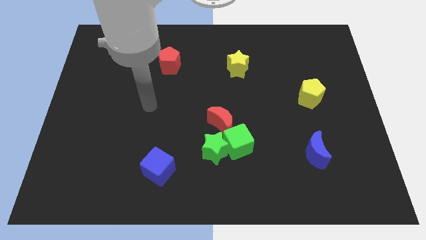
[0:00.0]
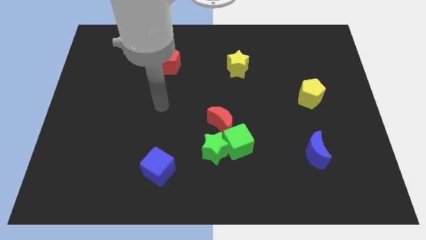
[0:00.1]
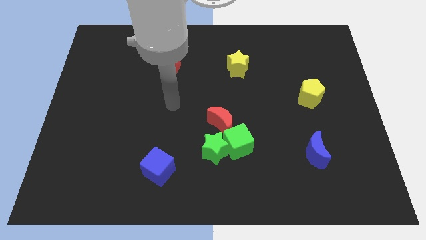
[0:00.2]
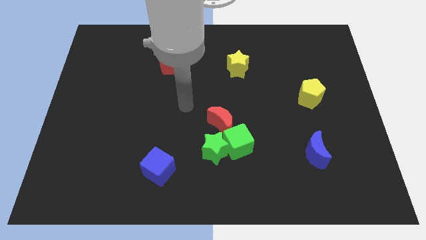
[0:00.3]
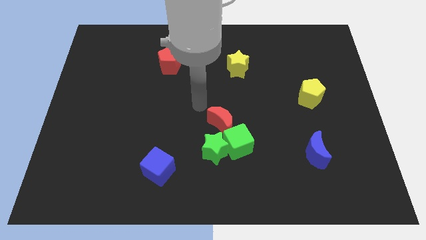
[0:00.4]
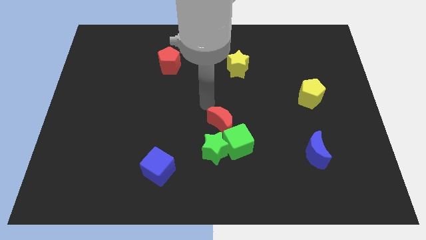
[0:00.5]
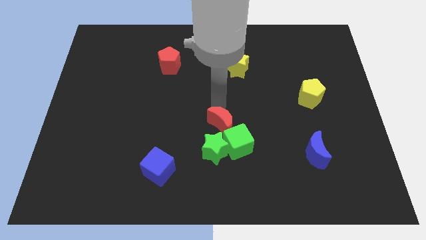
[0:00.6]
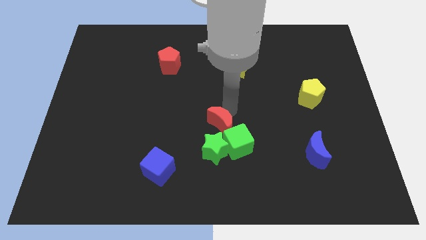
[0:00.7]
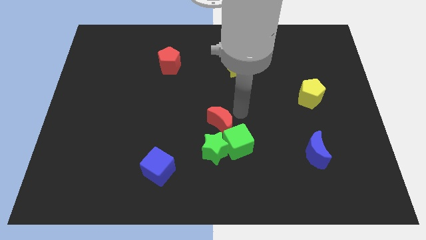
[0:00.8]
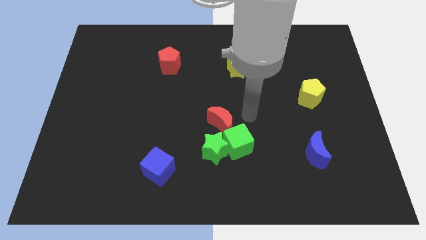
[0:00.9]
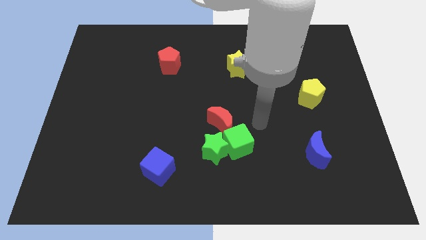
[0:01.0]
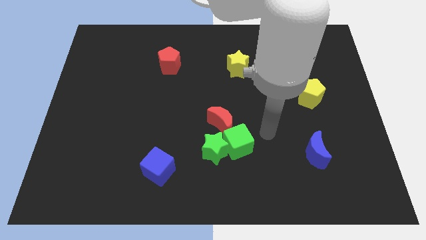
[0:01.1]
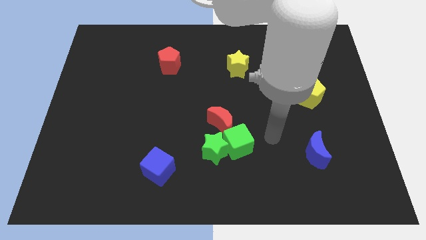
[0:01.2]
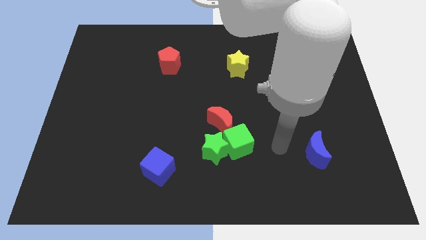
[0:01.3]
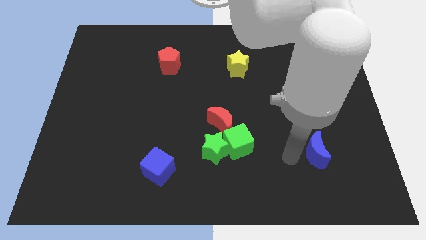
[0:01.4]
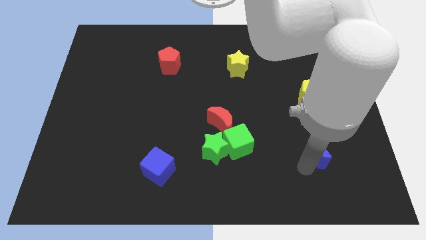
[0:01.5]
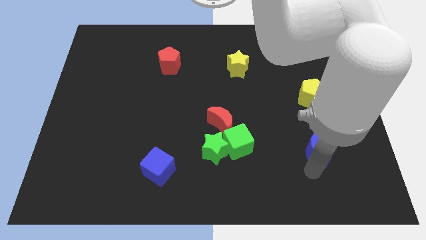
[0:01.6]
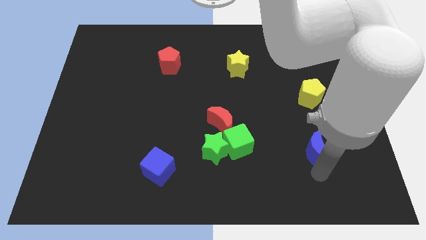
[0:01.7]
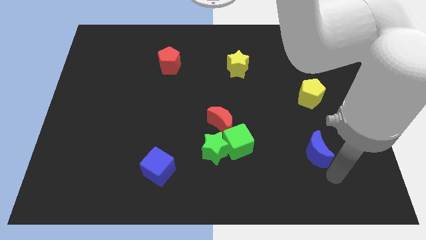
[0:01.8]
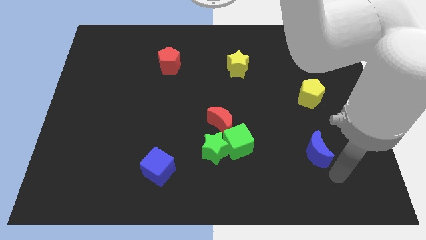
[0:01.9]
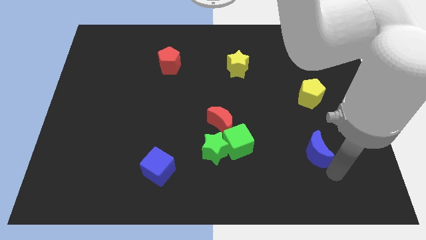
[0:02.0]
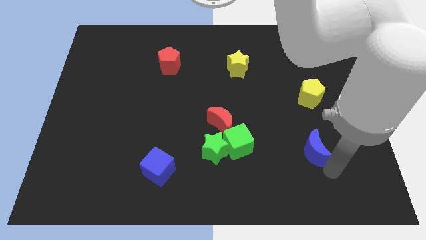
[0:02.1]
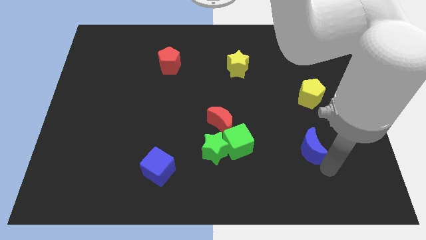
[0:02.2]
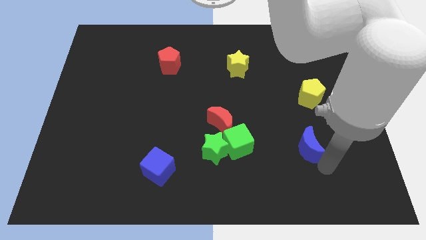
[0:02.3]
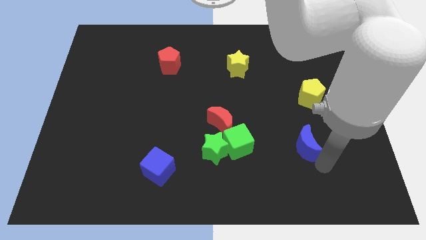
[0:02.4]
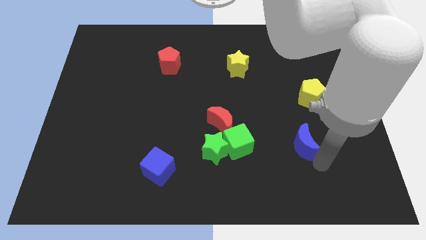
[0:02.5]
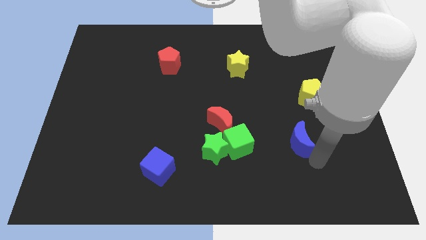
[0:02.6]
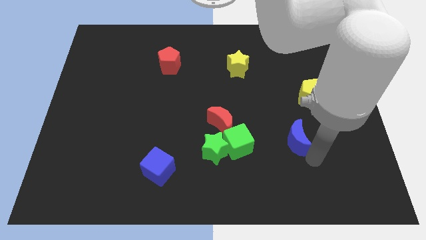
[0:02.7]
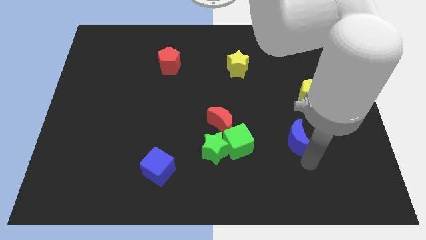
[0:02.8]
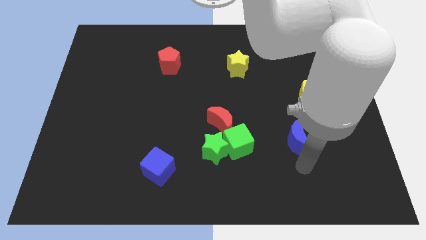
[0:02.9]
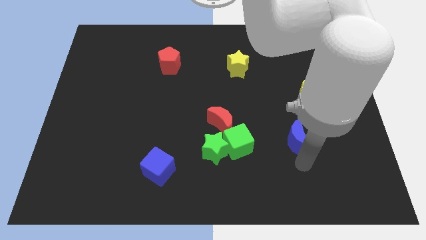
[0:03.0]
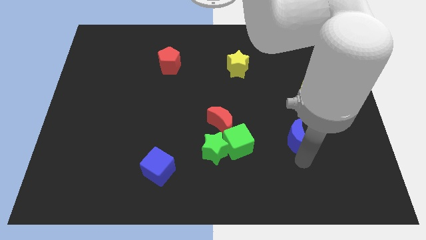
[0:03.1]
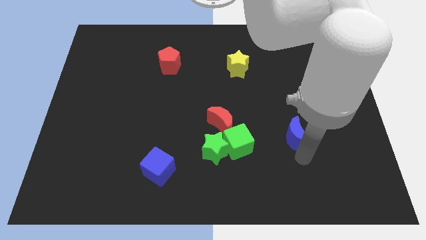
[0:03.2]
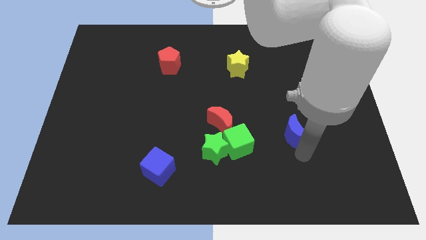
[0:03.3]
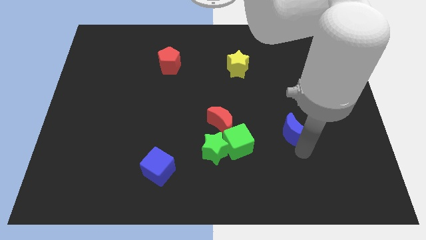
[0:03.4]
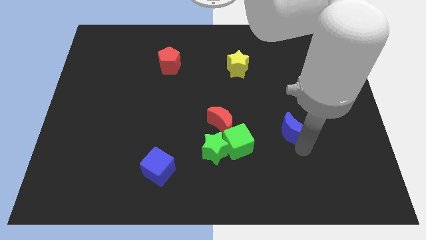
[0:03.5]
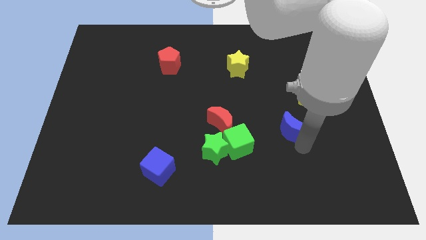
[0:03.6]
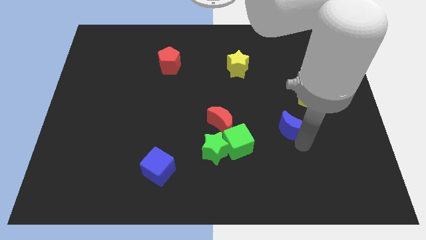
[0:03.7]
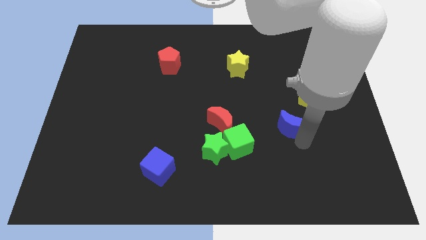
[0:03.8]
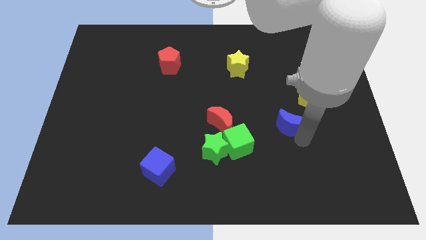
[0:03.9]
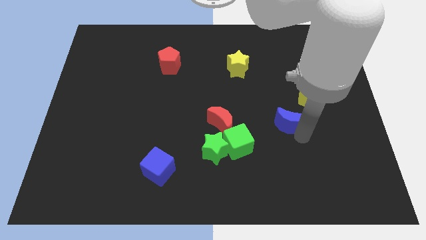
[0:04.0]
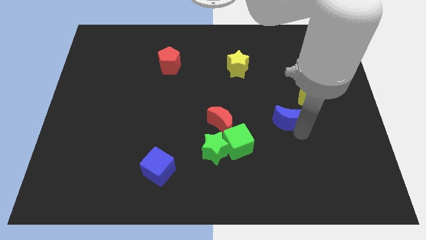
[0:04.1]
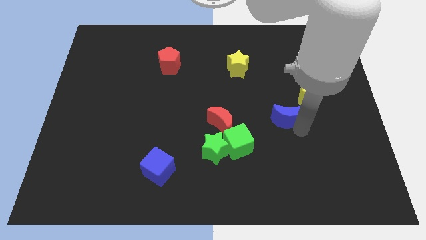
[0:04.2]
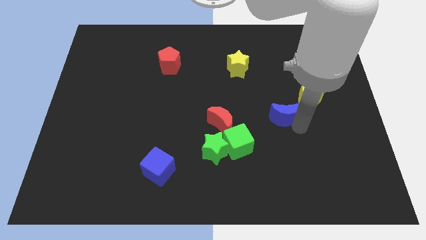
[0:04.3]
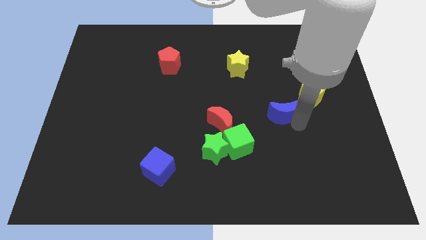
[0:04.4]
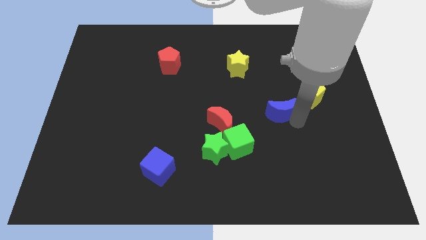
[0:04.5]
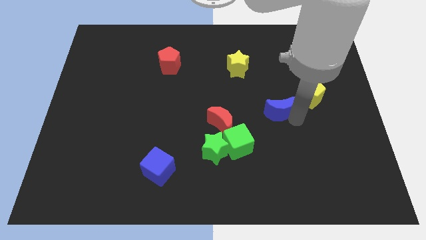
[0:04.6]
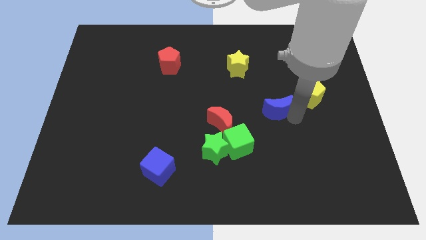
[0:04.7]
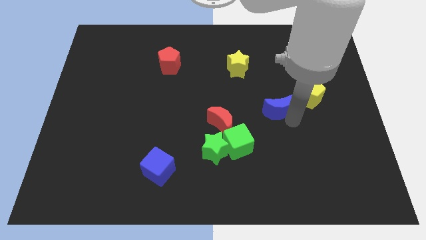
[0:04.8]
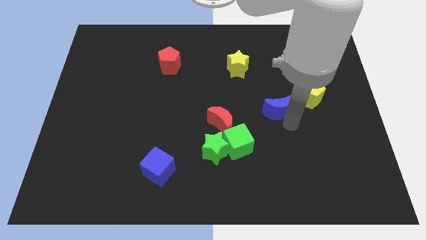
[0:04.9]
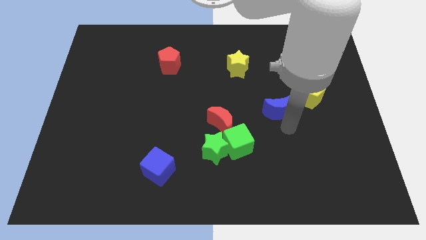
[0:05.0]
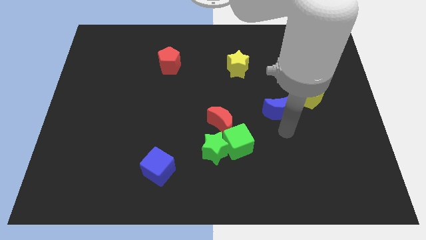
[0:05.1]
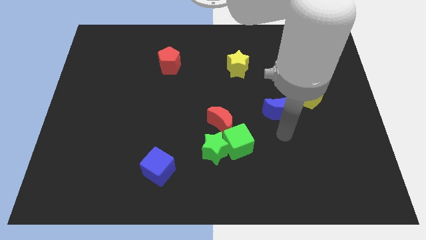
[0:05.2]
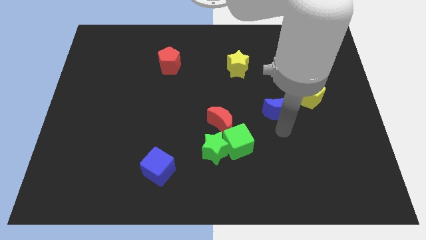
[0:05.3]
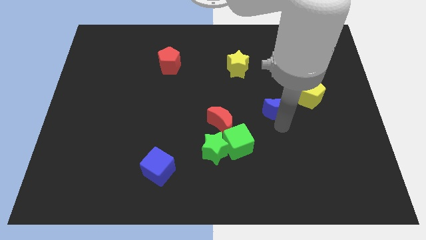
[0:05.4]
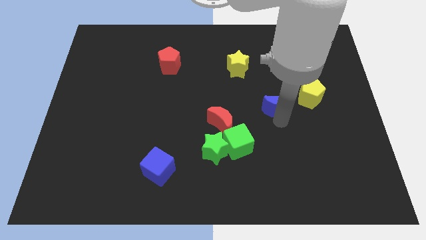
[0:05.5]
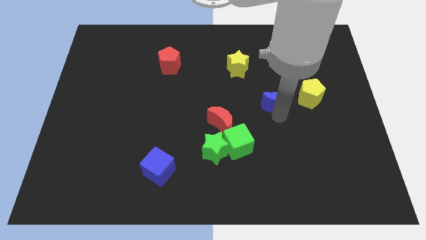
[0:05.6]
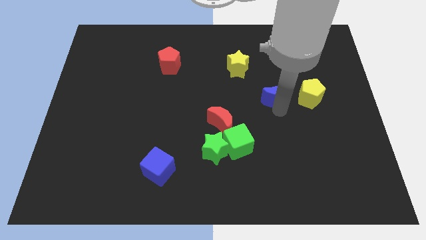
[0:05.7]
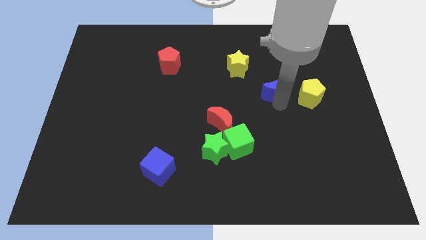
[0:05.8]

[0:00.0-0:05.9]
move the blue moon to the bottom right side of the yellow star

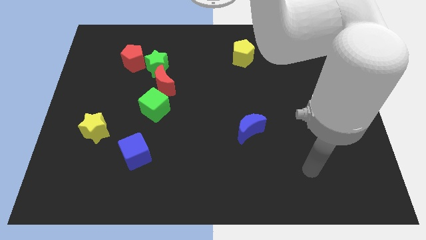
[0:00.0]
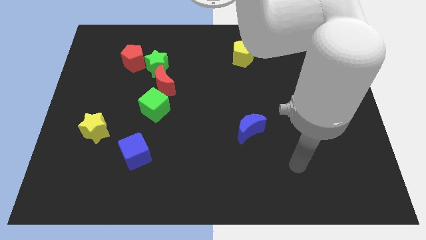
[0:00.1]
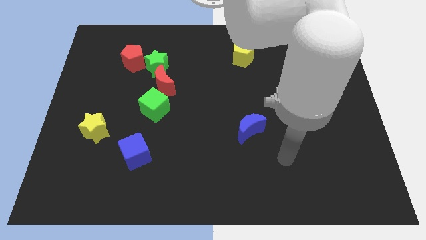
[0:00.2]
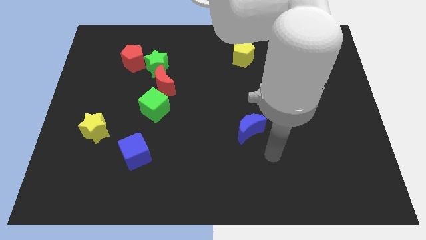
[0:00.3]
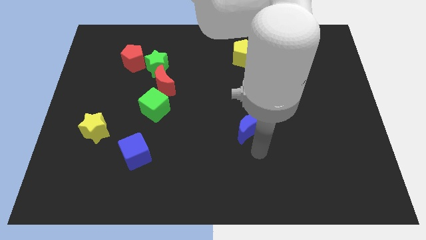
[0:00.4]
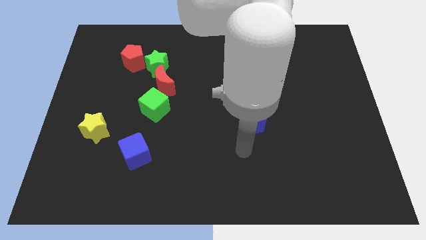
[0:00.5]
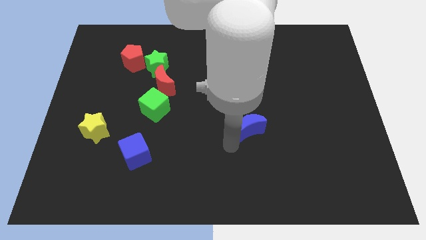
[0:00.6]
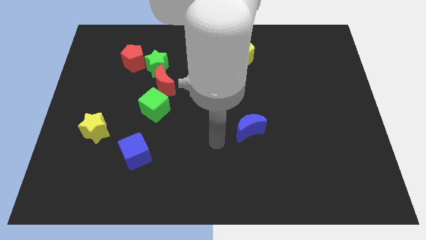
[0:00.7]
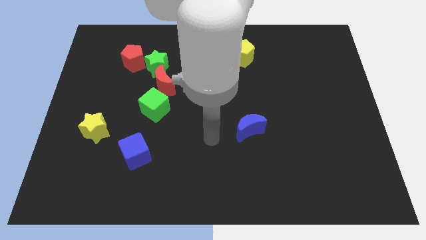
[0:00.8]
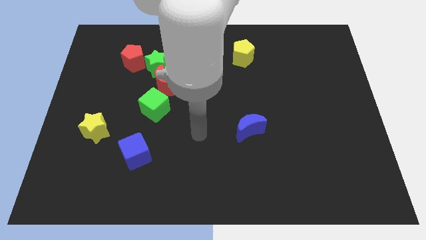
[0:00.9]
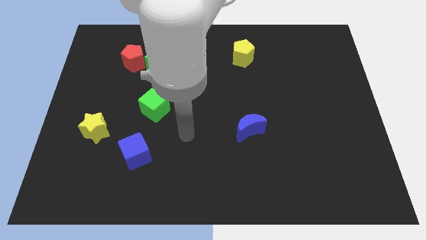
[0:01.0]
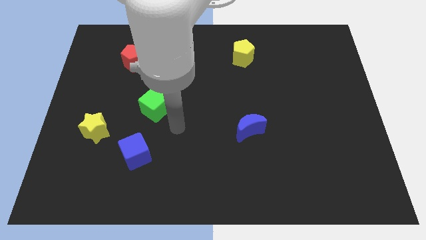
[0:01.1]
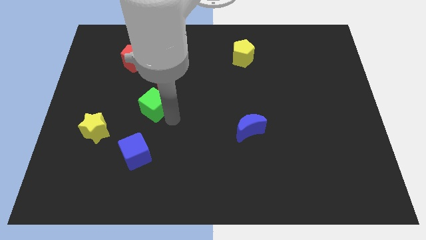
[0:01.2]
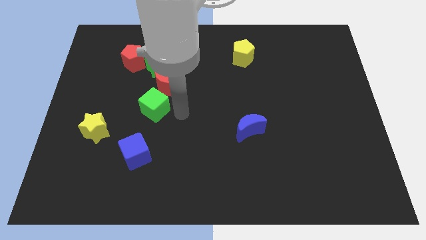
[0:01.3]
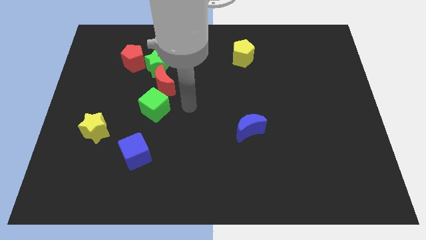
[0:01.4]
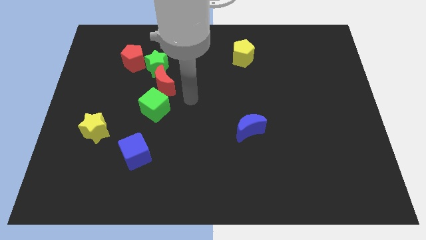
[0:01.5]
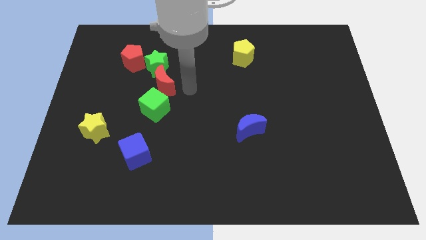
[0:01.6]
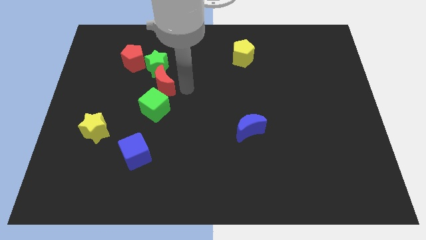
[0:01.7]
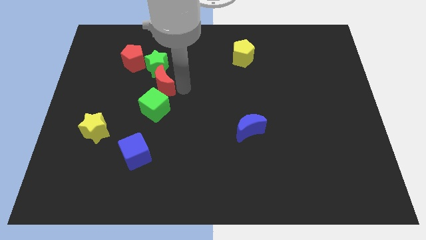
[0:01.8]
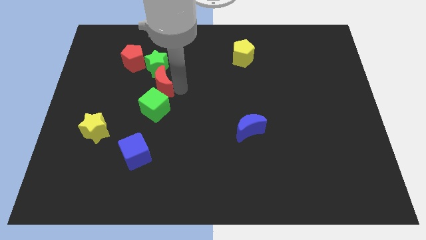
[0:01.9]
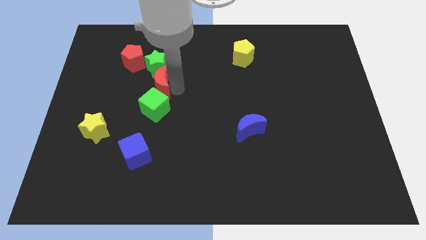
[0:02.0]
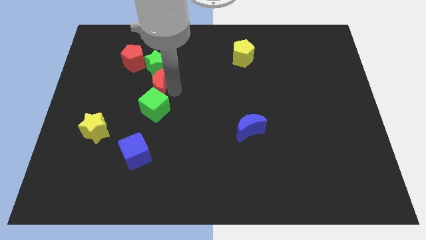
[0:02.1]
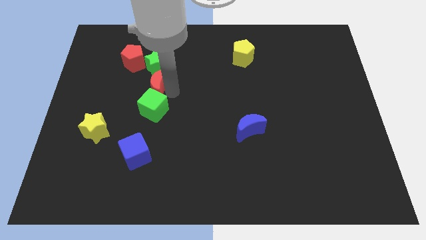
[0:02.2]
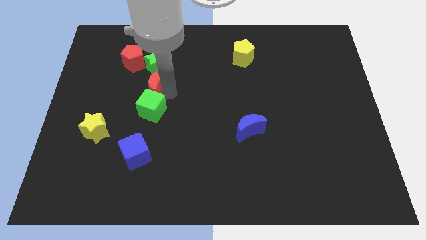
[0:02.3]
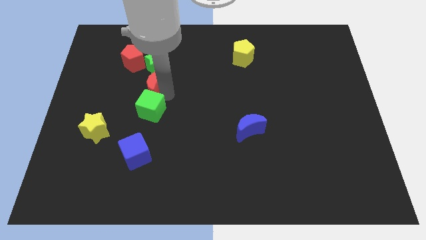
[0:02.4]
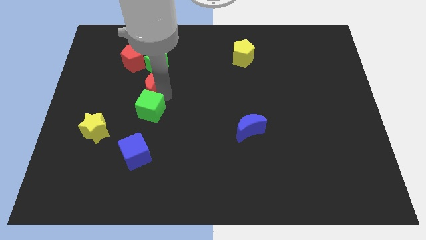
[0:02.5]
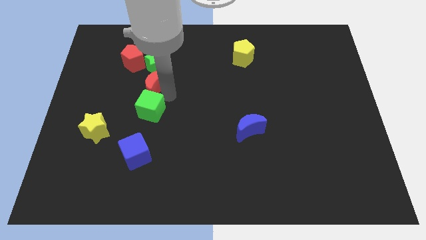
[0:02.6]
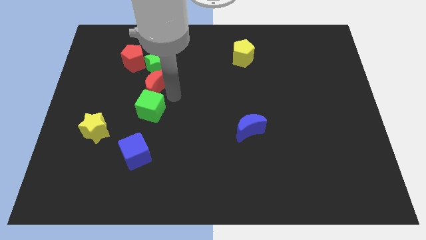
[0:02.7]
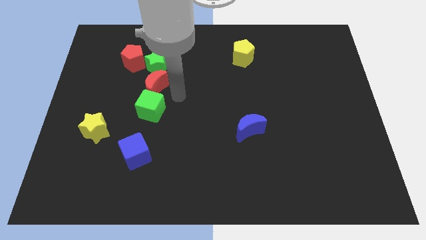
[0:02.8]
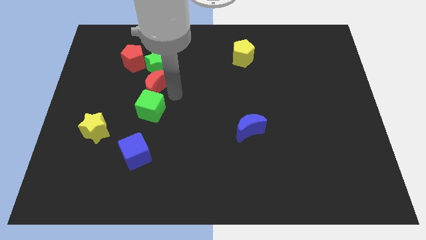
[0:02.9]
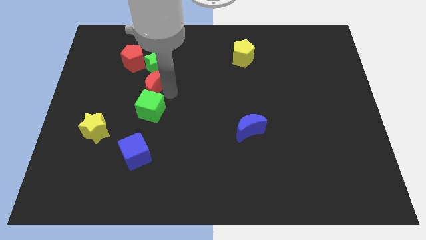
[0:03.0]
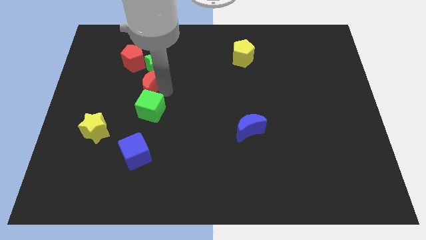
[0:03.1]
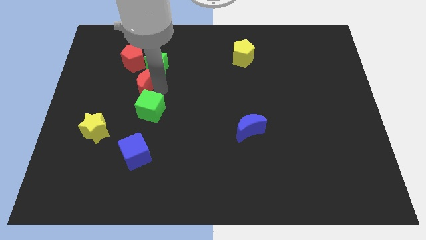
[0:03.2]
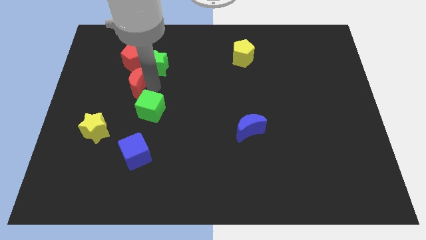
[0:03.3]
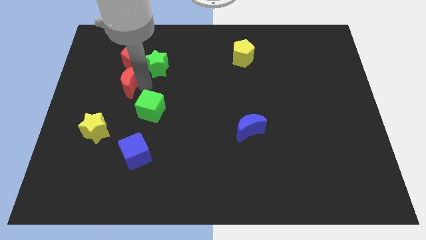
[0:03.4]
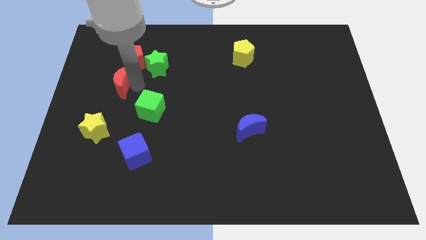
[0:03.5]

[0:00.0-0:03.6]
move the red moon to the bottom left side of the red pentagon
